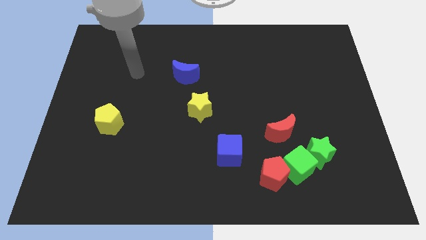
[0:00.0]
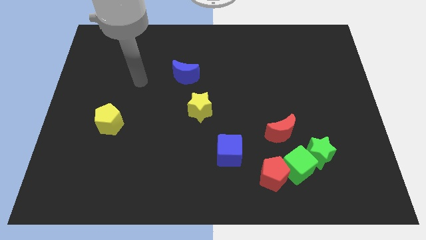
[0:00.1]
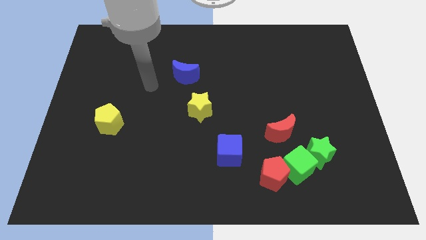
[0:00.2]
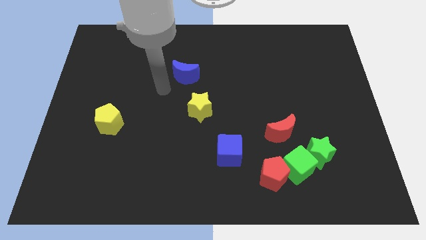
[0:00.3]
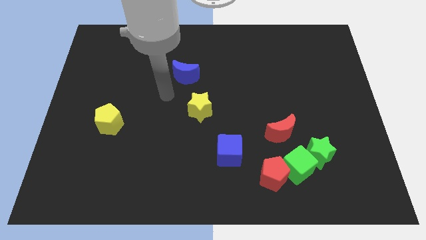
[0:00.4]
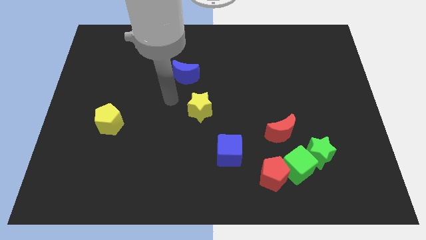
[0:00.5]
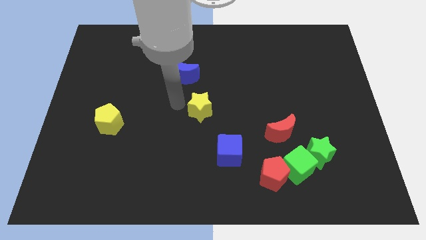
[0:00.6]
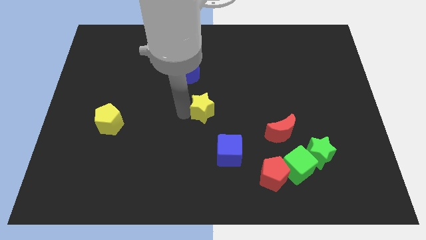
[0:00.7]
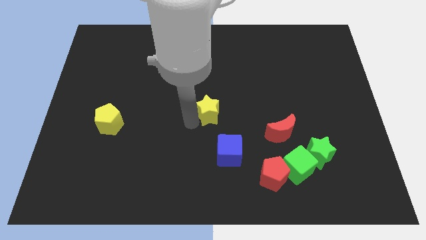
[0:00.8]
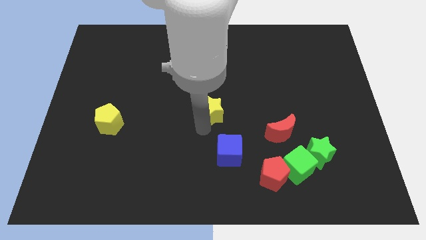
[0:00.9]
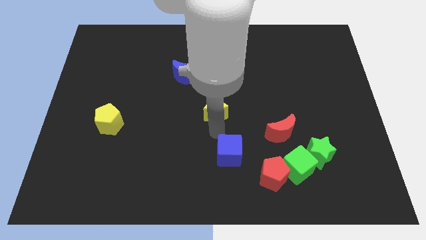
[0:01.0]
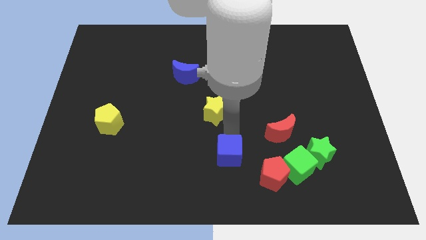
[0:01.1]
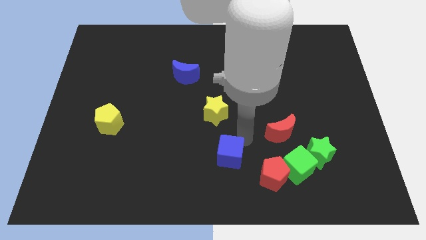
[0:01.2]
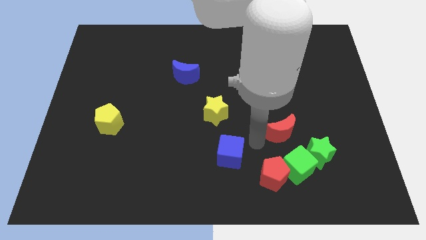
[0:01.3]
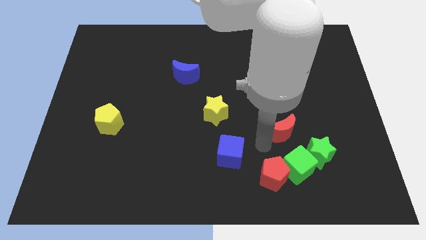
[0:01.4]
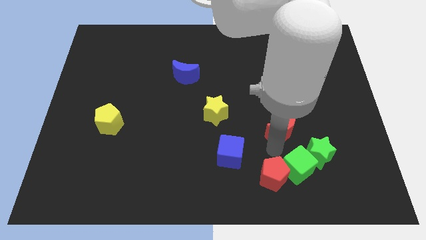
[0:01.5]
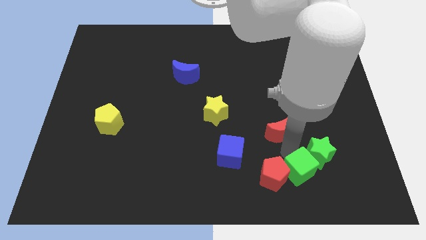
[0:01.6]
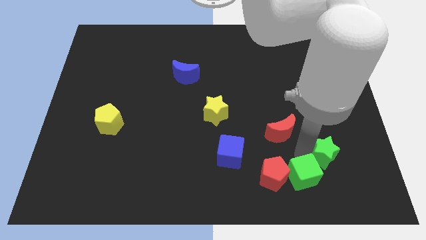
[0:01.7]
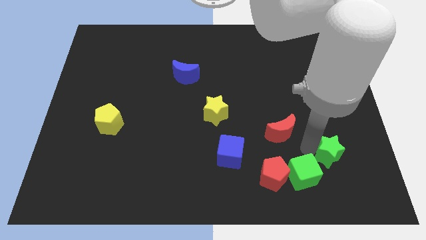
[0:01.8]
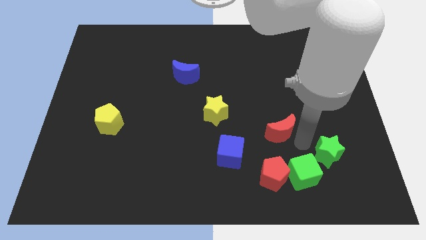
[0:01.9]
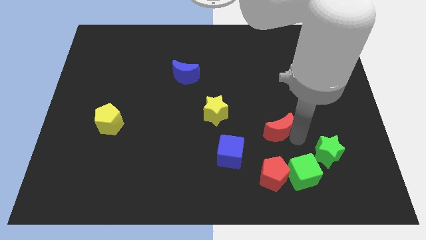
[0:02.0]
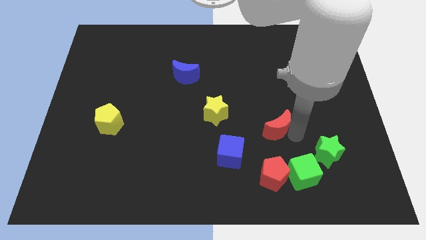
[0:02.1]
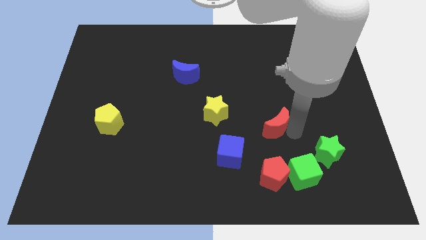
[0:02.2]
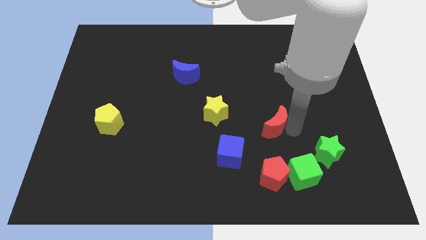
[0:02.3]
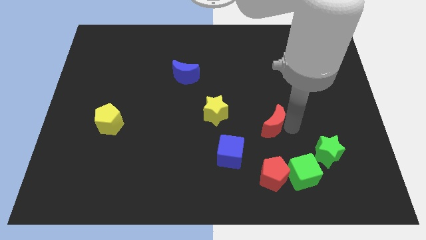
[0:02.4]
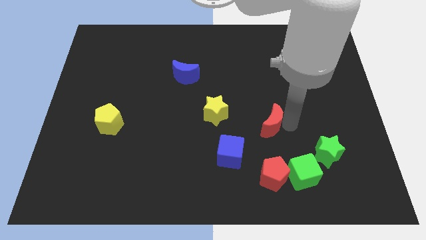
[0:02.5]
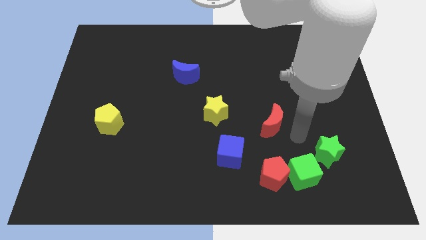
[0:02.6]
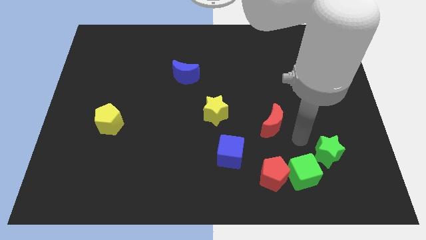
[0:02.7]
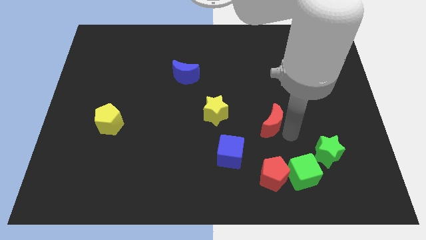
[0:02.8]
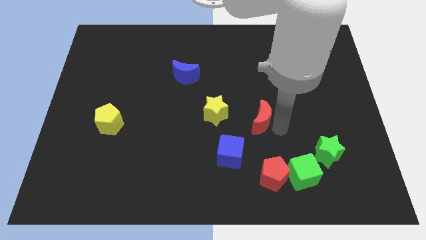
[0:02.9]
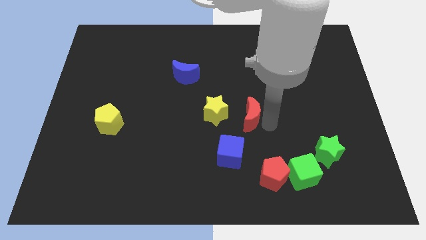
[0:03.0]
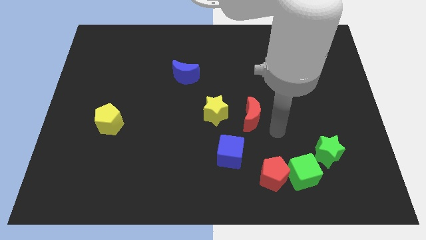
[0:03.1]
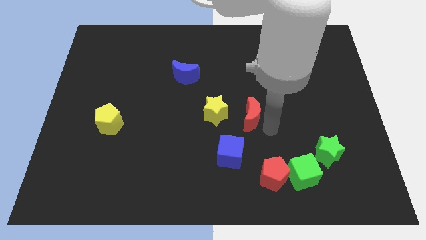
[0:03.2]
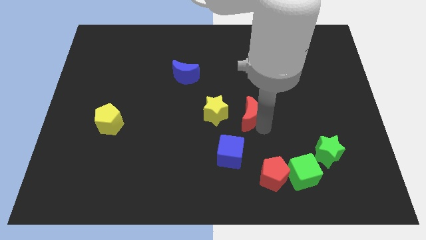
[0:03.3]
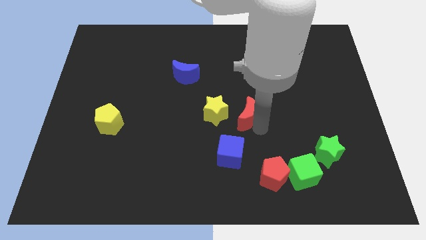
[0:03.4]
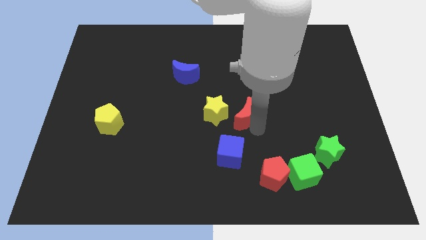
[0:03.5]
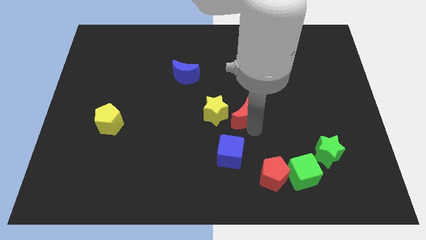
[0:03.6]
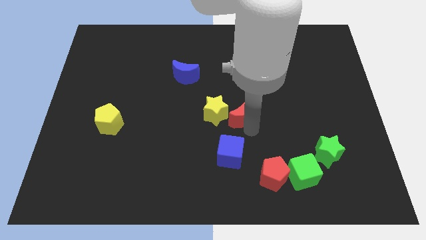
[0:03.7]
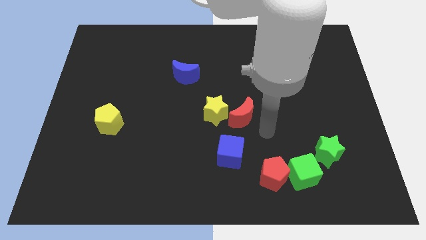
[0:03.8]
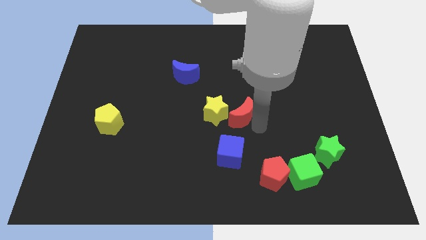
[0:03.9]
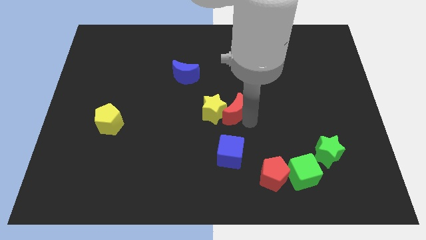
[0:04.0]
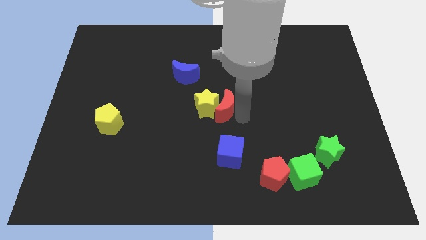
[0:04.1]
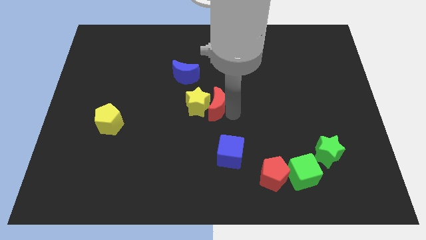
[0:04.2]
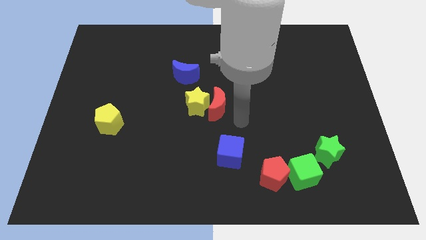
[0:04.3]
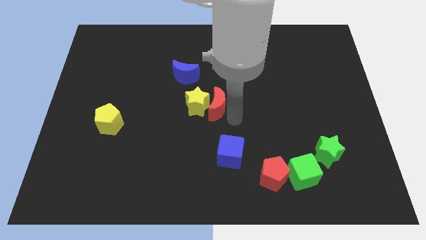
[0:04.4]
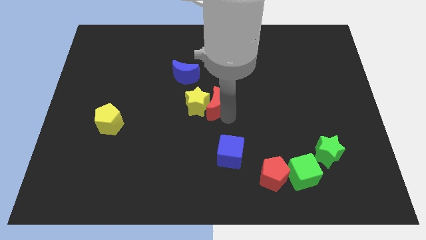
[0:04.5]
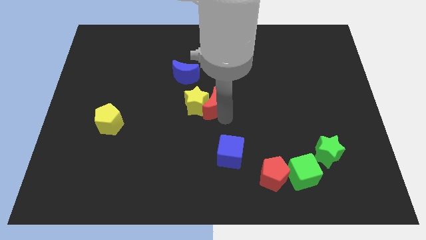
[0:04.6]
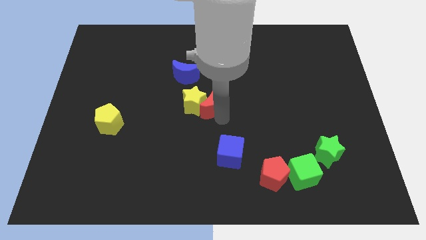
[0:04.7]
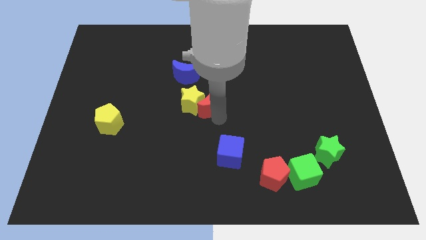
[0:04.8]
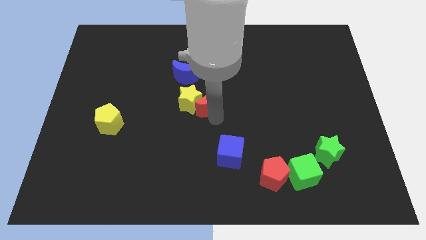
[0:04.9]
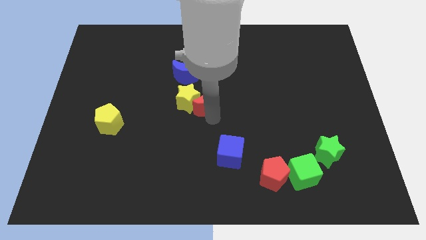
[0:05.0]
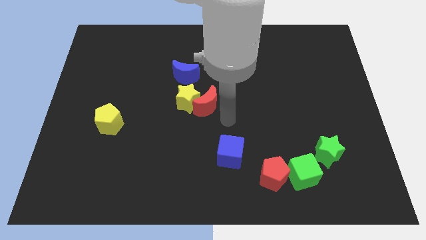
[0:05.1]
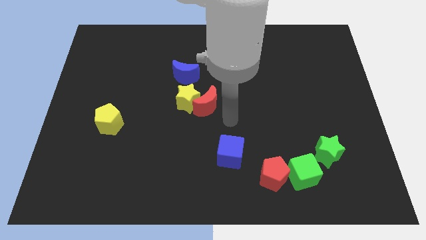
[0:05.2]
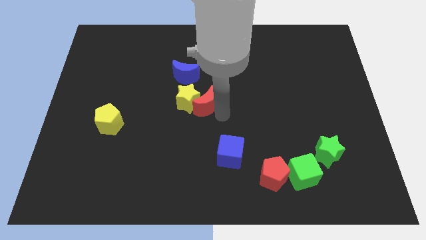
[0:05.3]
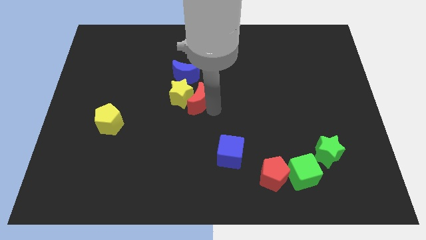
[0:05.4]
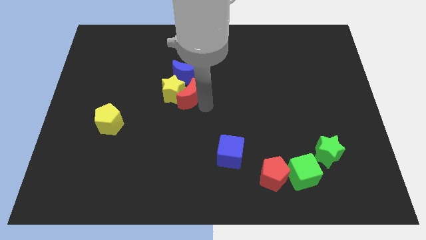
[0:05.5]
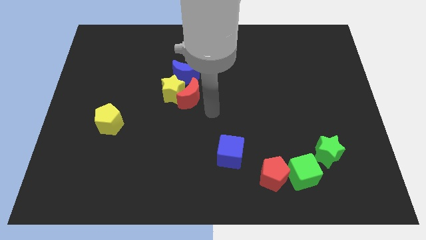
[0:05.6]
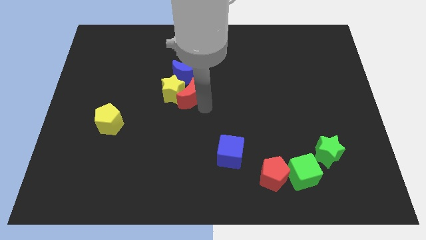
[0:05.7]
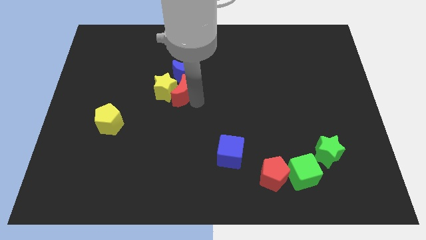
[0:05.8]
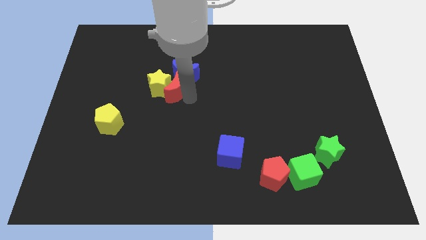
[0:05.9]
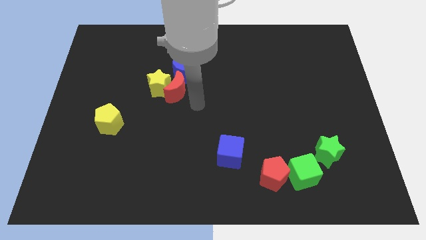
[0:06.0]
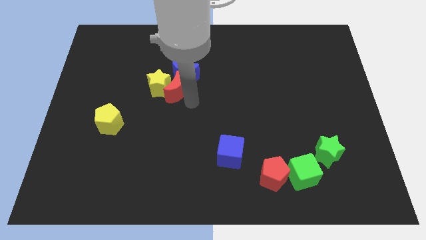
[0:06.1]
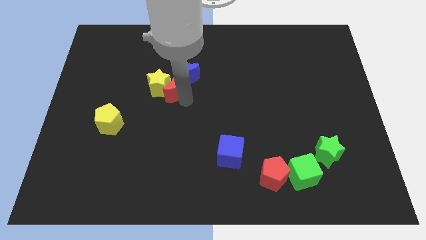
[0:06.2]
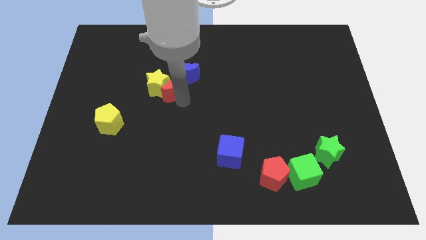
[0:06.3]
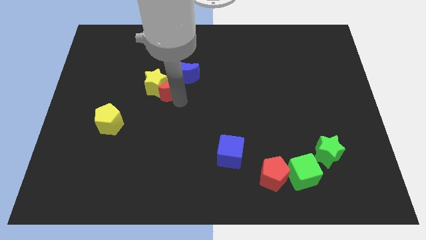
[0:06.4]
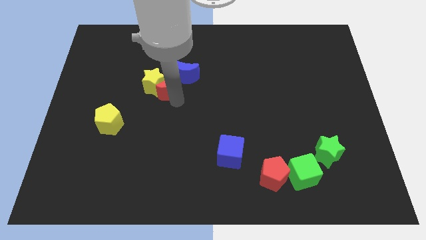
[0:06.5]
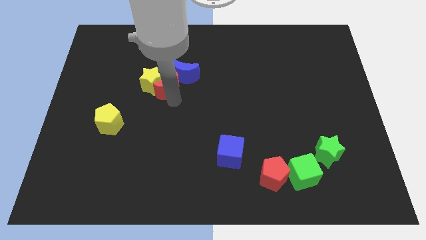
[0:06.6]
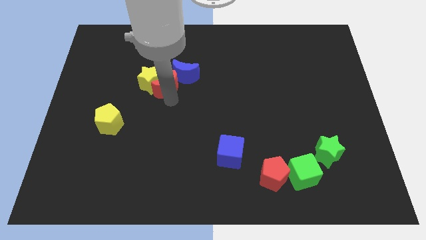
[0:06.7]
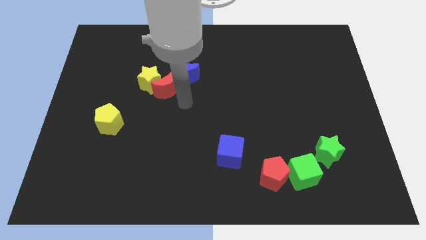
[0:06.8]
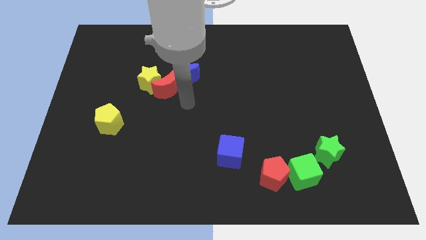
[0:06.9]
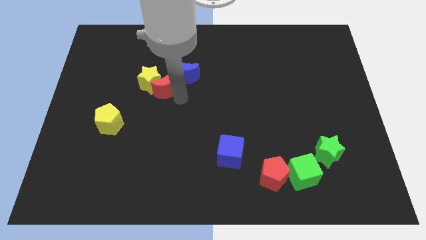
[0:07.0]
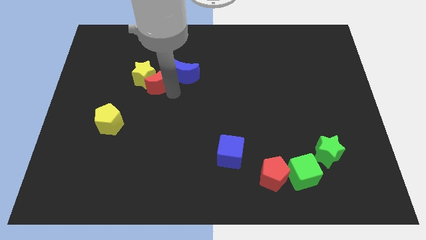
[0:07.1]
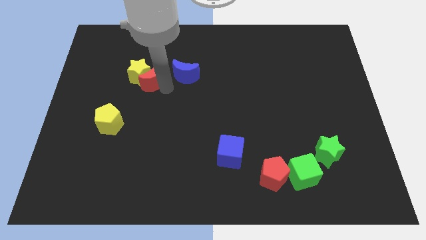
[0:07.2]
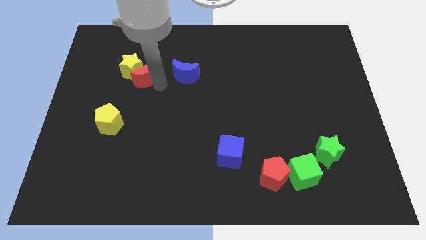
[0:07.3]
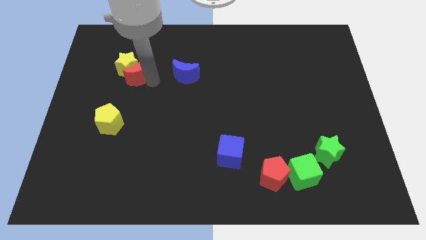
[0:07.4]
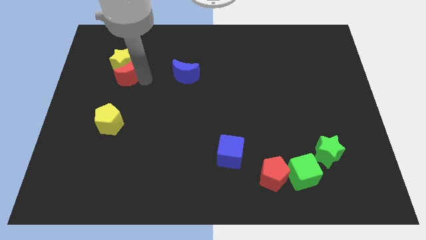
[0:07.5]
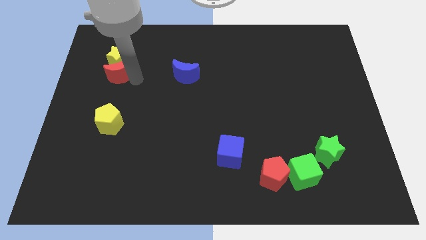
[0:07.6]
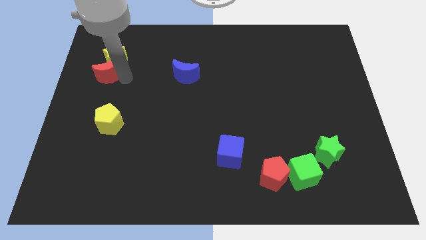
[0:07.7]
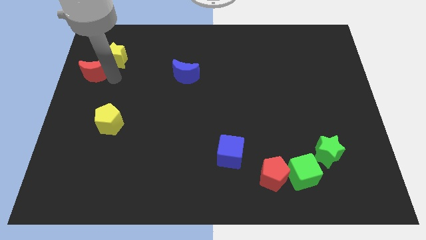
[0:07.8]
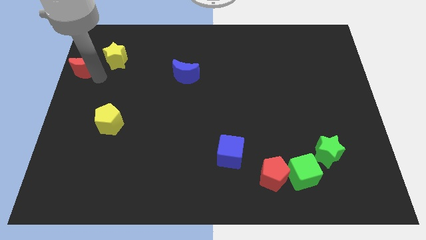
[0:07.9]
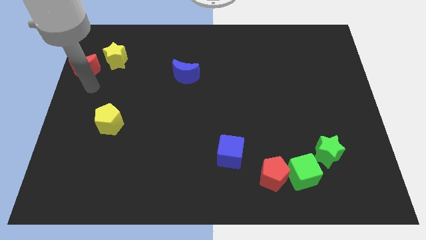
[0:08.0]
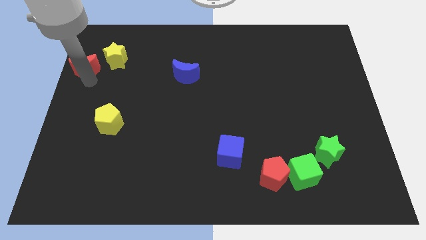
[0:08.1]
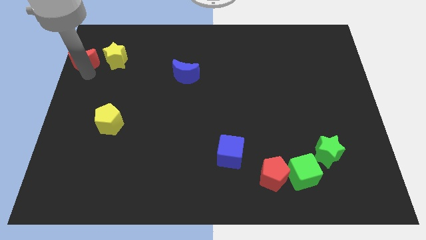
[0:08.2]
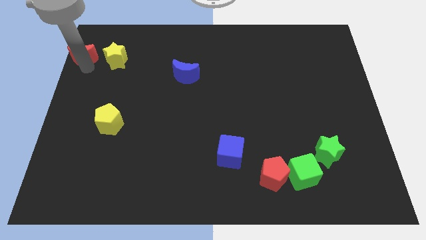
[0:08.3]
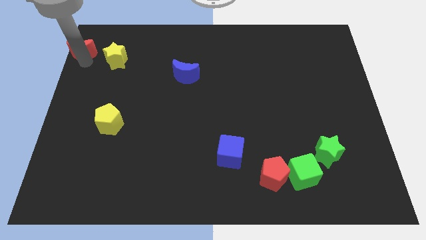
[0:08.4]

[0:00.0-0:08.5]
slide the red moon to the top left of the board
